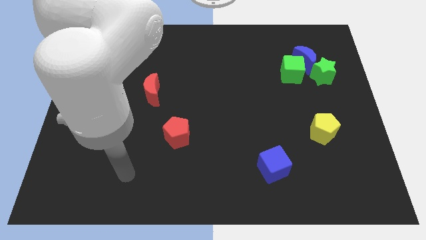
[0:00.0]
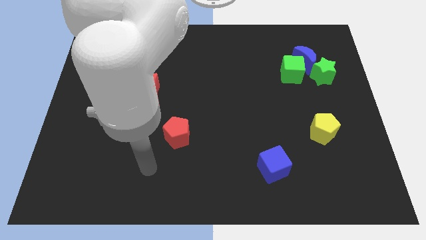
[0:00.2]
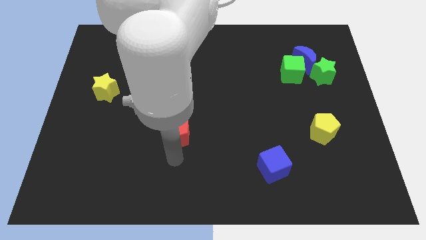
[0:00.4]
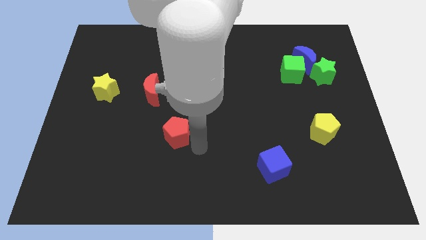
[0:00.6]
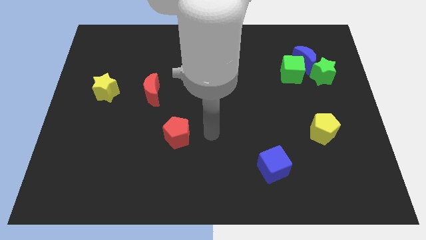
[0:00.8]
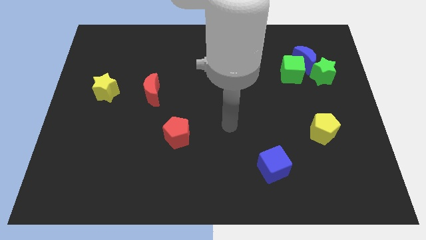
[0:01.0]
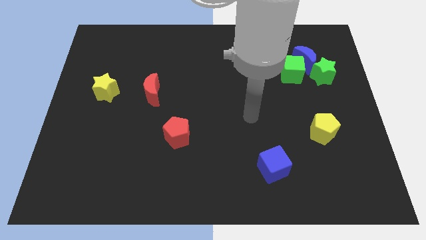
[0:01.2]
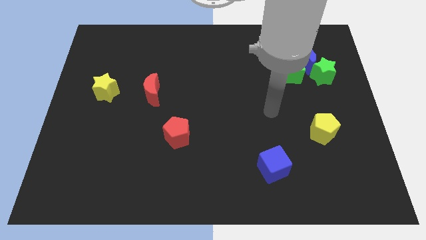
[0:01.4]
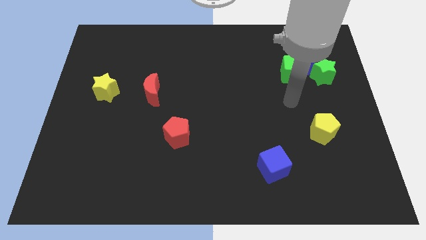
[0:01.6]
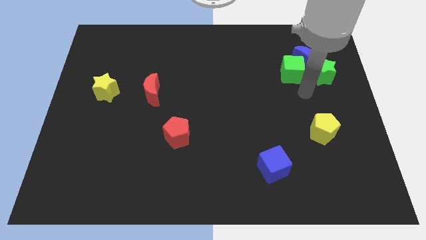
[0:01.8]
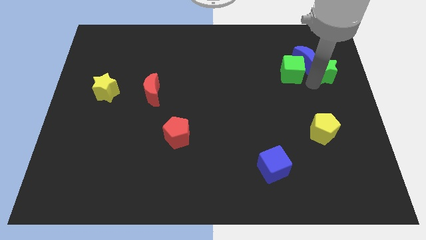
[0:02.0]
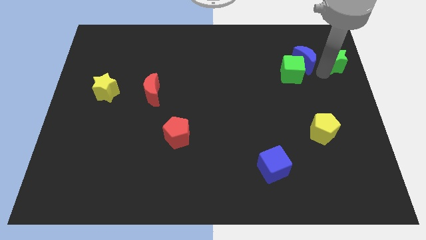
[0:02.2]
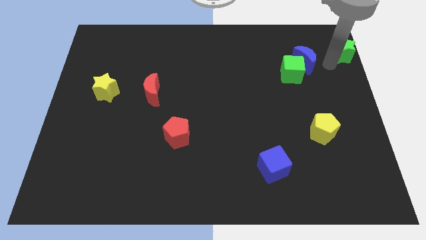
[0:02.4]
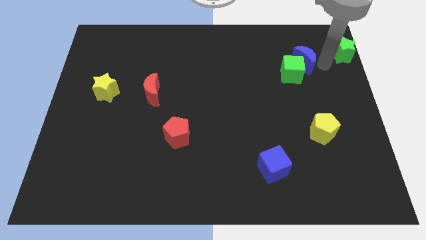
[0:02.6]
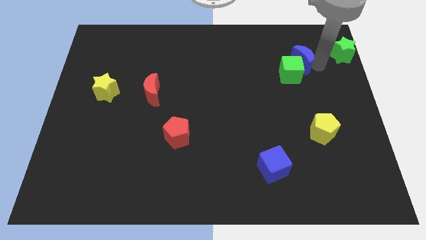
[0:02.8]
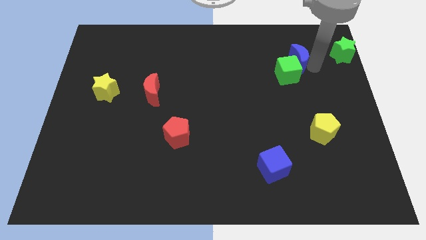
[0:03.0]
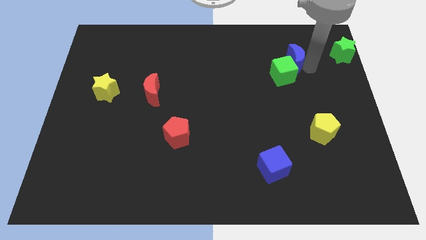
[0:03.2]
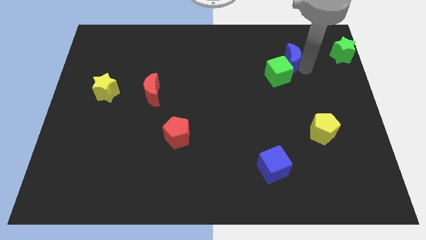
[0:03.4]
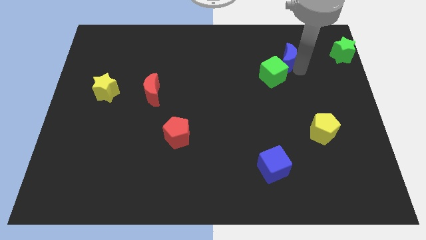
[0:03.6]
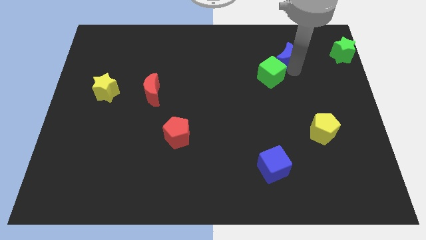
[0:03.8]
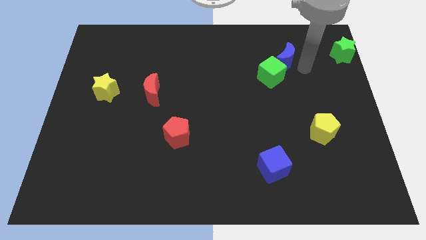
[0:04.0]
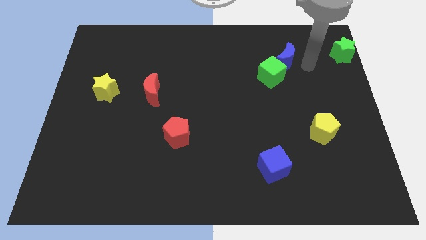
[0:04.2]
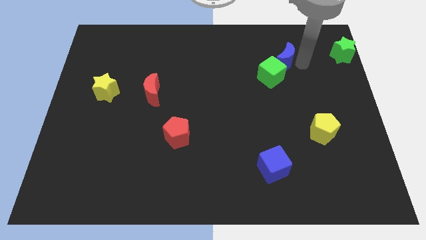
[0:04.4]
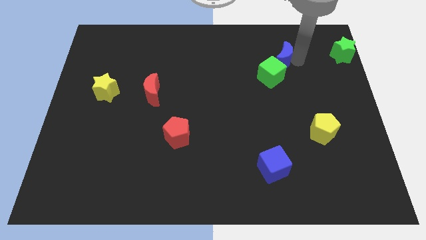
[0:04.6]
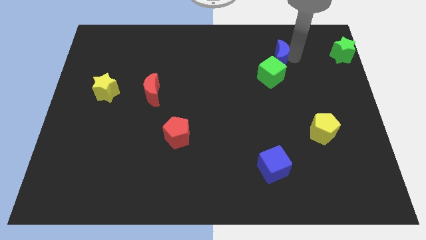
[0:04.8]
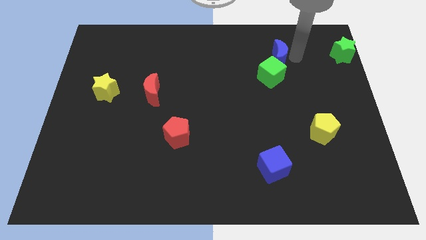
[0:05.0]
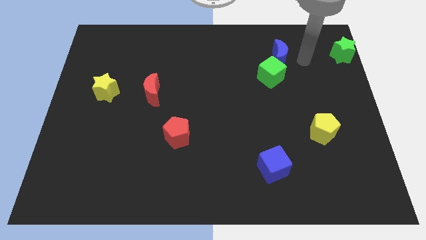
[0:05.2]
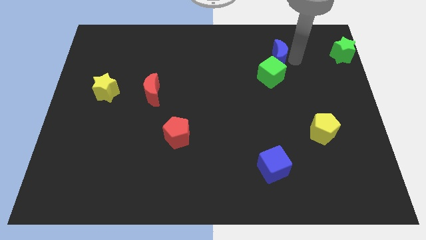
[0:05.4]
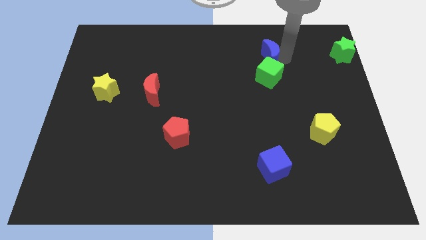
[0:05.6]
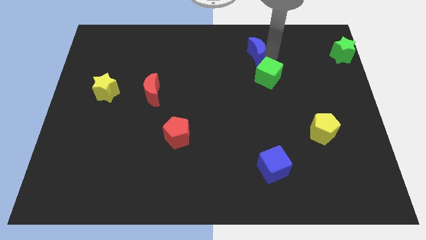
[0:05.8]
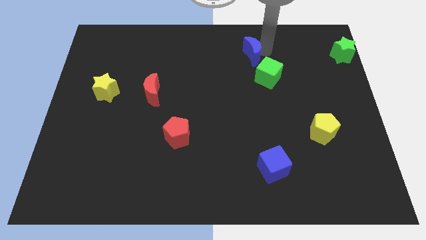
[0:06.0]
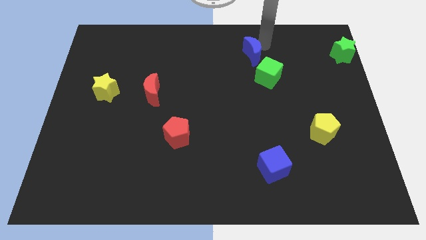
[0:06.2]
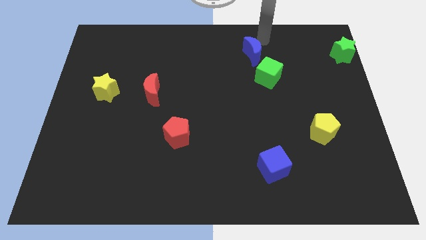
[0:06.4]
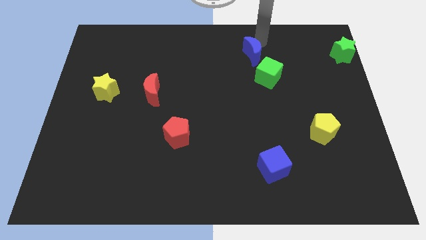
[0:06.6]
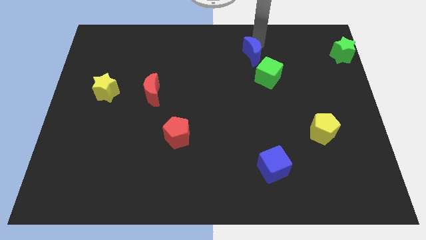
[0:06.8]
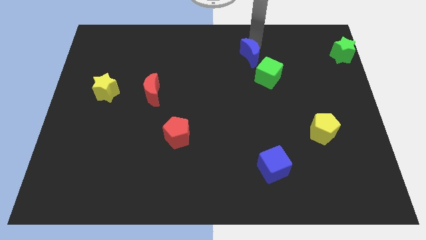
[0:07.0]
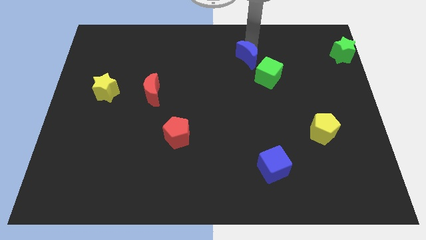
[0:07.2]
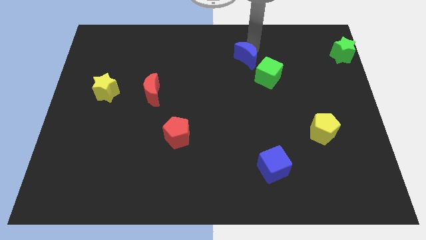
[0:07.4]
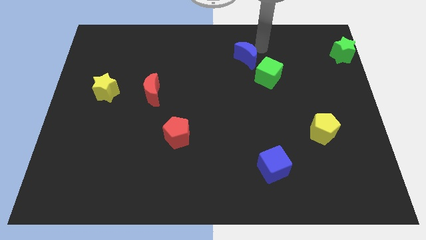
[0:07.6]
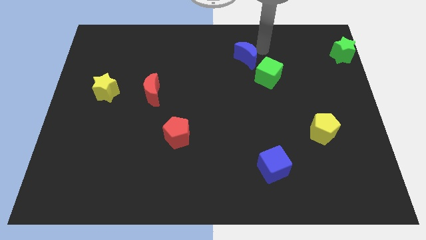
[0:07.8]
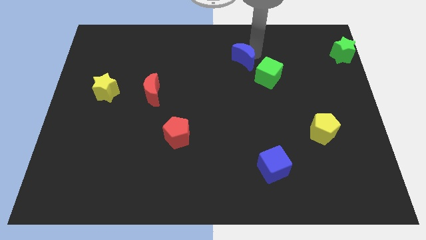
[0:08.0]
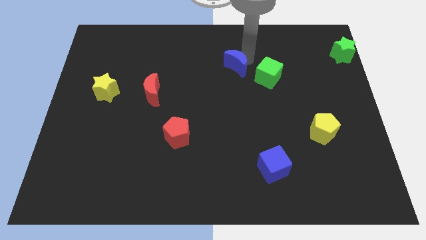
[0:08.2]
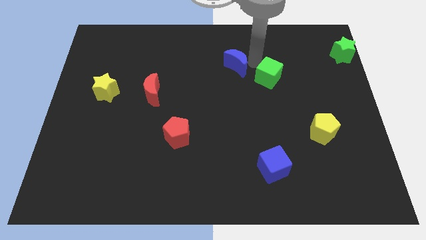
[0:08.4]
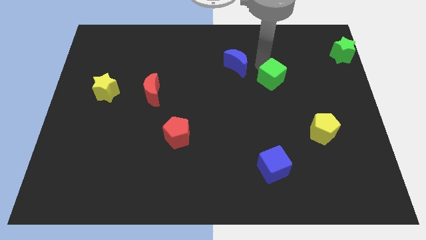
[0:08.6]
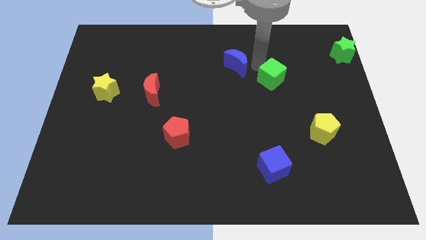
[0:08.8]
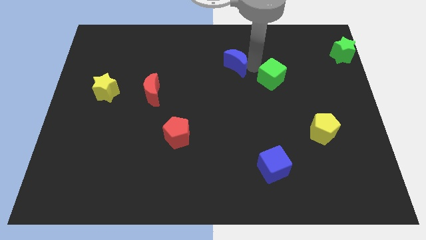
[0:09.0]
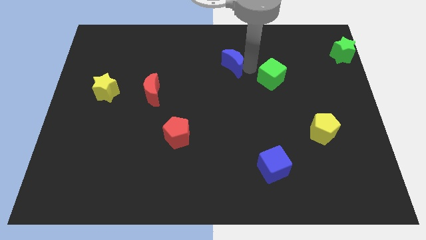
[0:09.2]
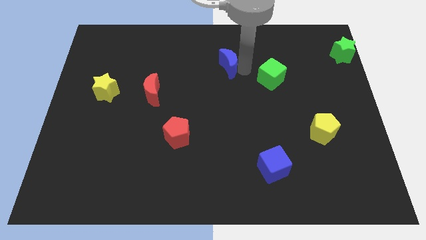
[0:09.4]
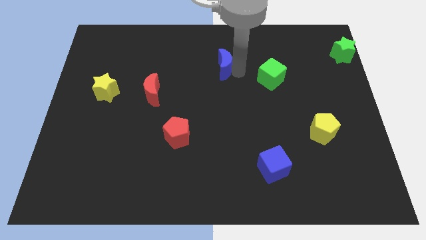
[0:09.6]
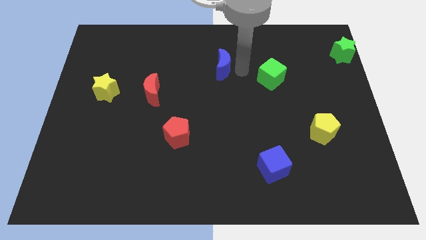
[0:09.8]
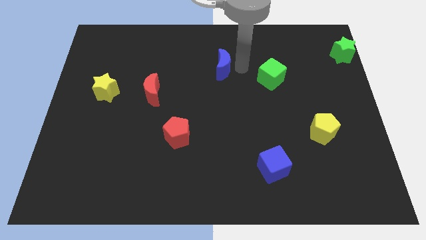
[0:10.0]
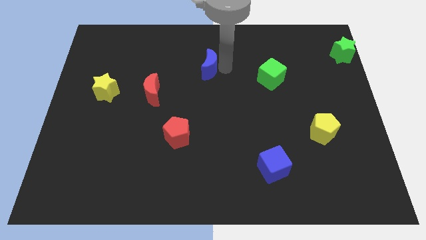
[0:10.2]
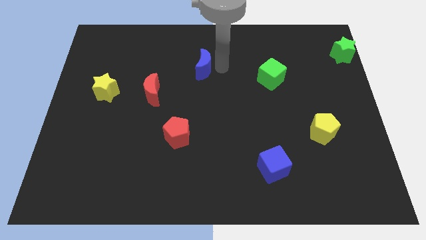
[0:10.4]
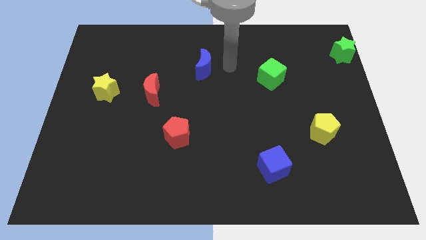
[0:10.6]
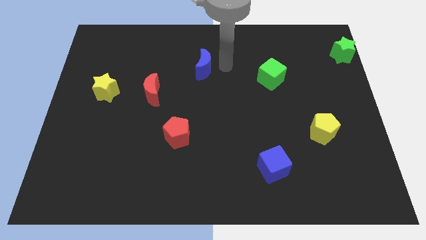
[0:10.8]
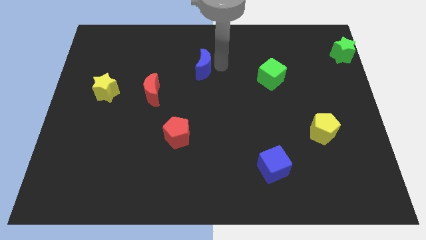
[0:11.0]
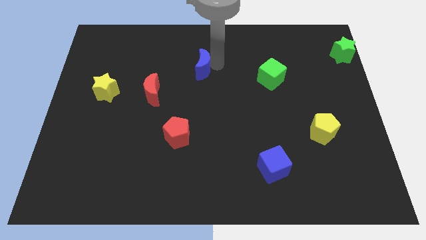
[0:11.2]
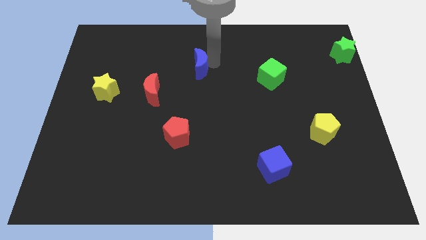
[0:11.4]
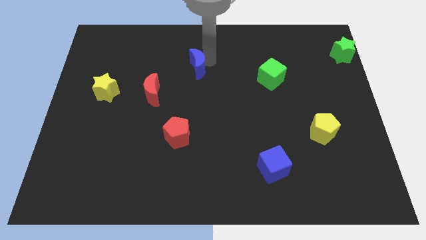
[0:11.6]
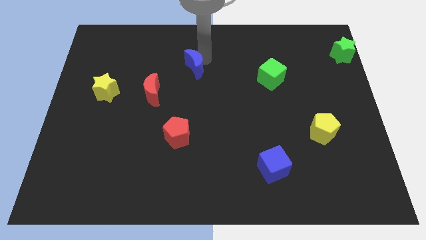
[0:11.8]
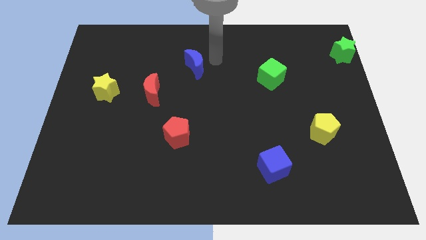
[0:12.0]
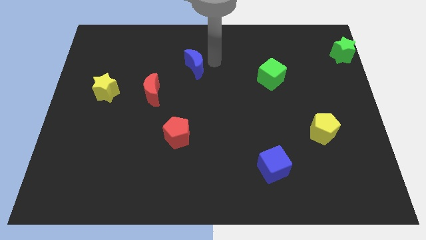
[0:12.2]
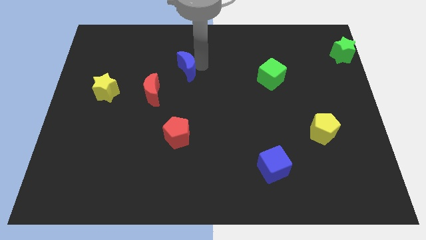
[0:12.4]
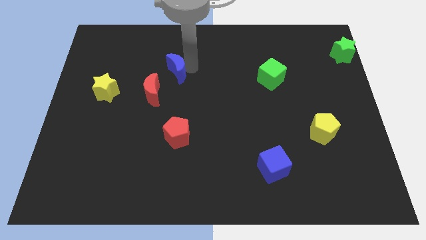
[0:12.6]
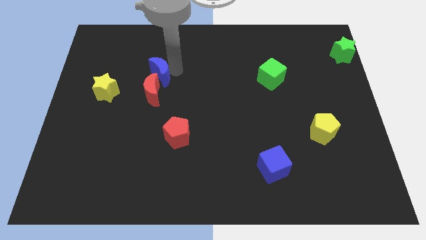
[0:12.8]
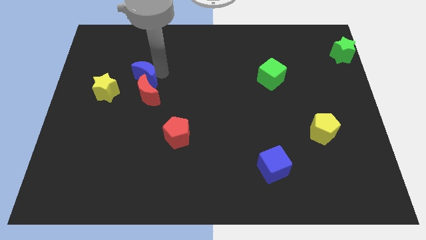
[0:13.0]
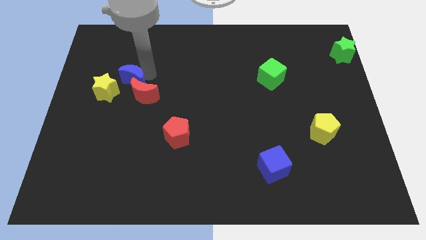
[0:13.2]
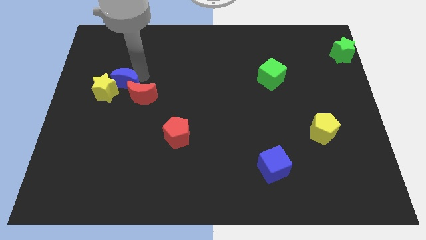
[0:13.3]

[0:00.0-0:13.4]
push the blue moon to the yellow star

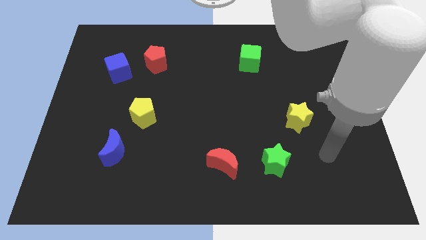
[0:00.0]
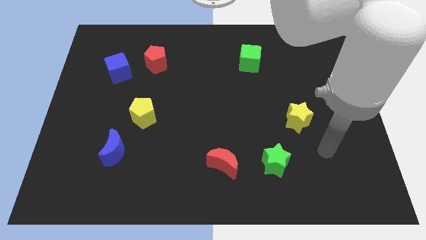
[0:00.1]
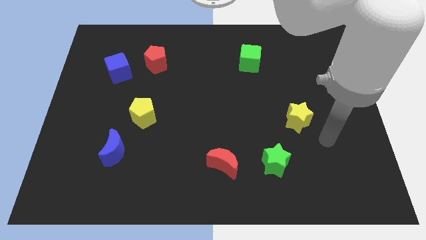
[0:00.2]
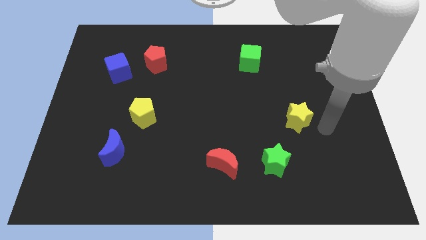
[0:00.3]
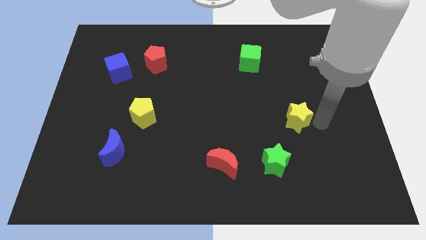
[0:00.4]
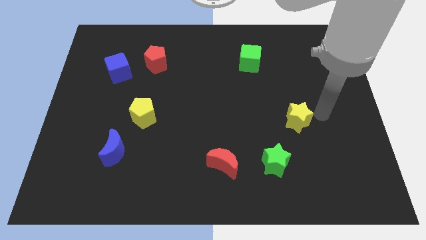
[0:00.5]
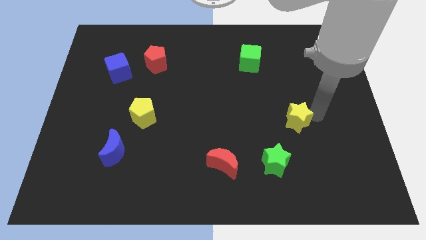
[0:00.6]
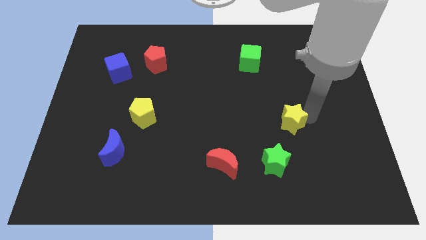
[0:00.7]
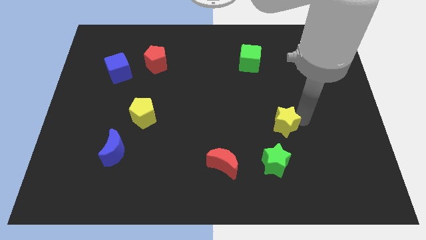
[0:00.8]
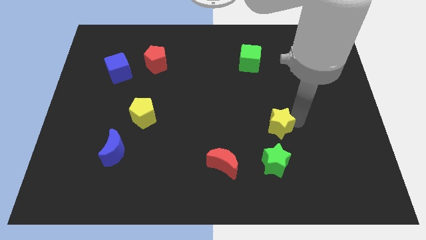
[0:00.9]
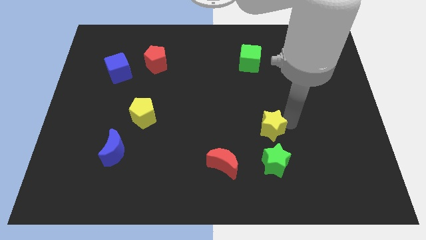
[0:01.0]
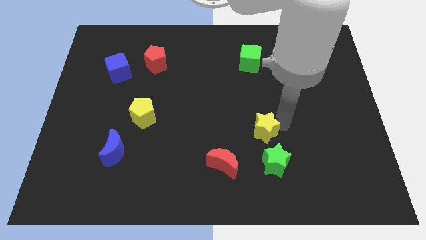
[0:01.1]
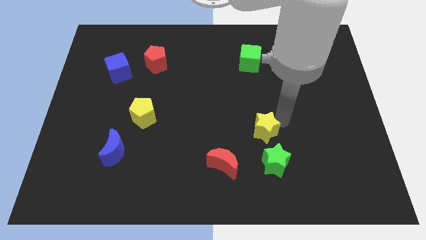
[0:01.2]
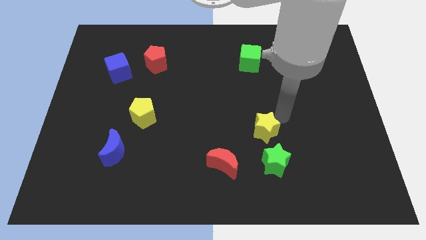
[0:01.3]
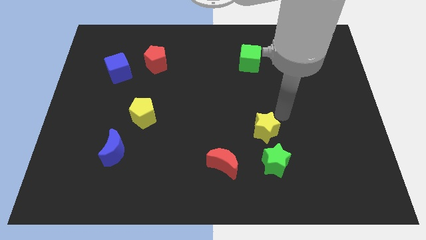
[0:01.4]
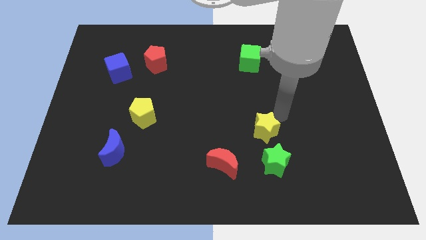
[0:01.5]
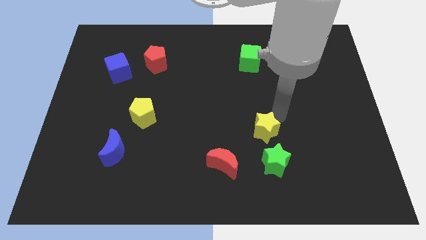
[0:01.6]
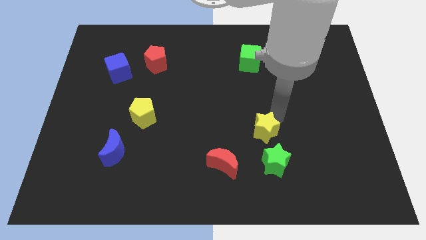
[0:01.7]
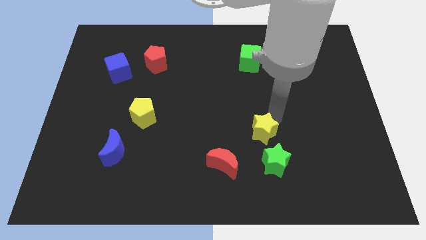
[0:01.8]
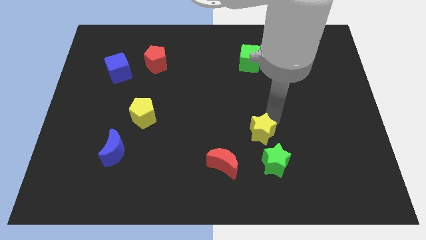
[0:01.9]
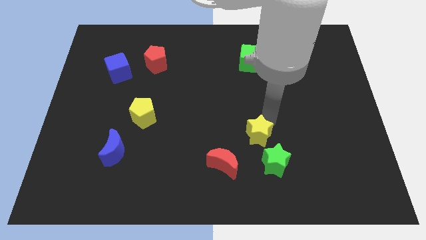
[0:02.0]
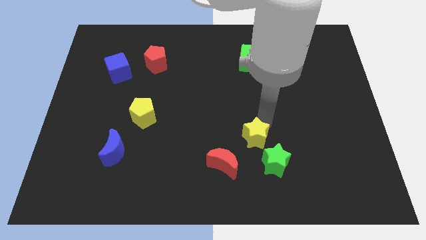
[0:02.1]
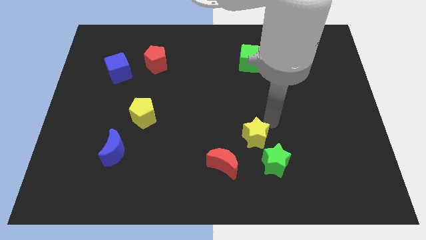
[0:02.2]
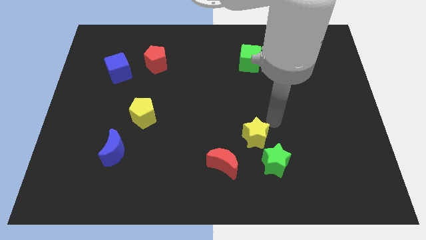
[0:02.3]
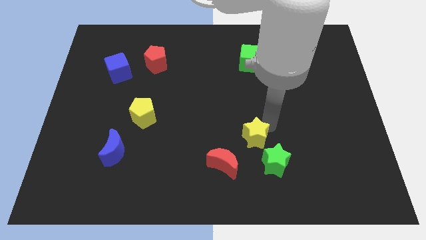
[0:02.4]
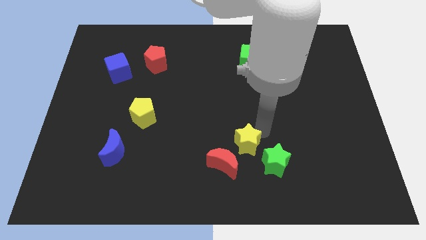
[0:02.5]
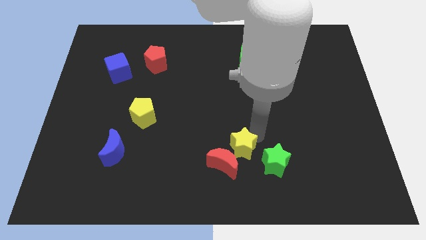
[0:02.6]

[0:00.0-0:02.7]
move the yellow star close to the red moon
